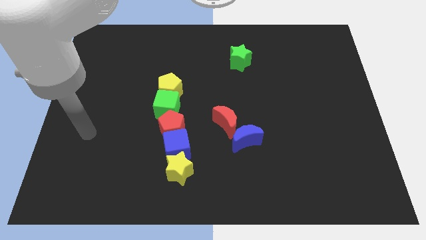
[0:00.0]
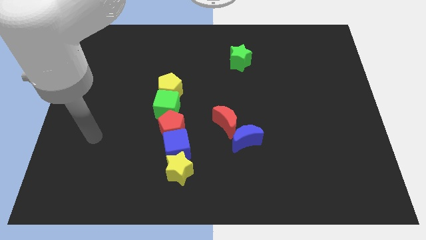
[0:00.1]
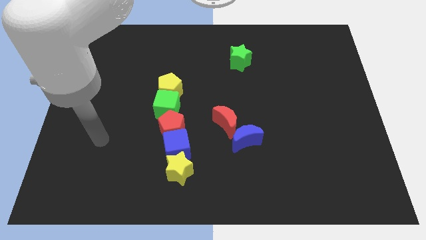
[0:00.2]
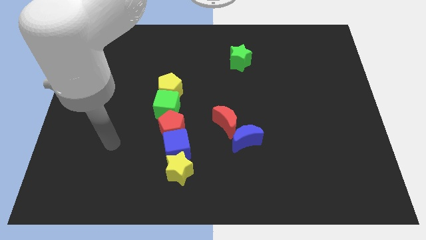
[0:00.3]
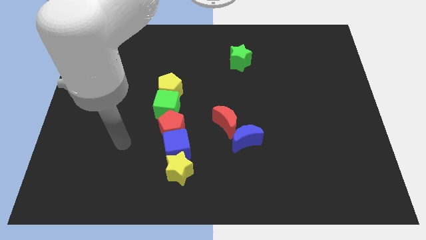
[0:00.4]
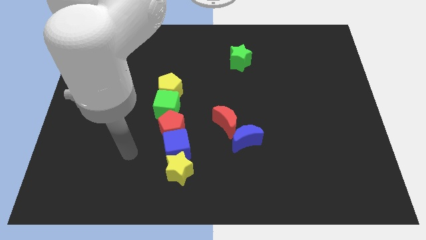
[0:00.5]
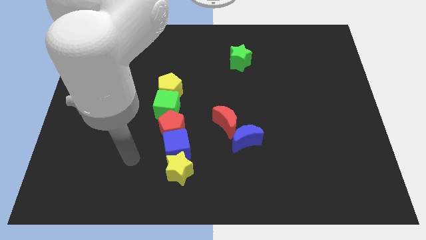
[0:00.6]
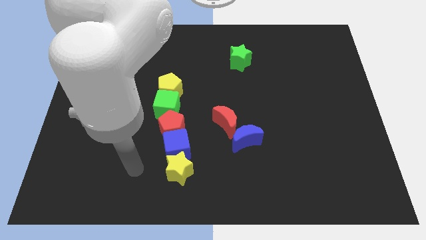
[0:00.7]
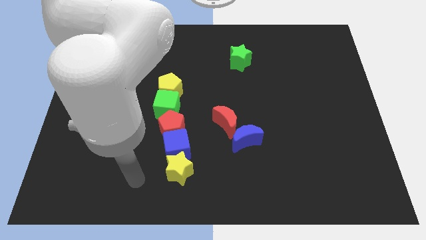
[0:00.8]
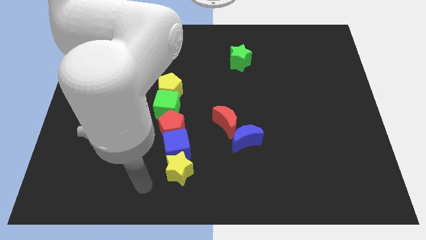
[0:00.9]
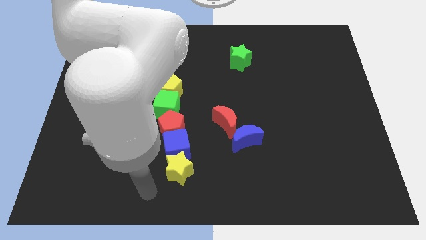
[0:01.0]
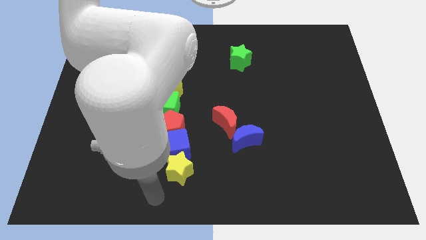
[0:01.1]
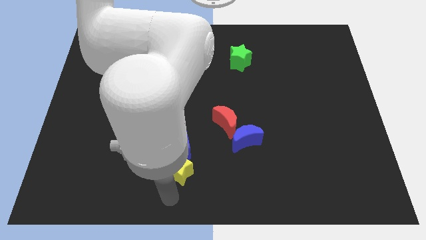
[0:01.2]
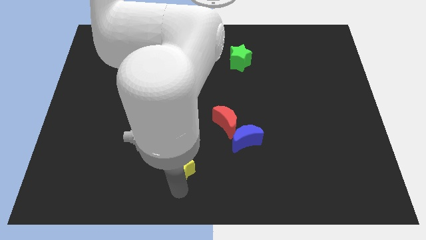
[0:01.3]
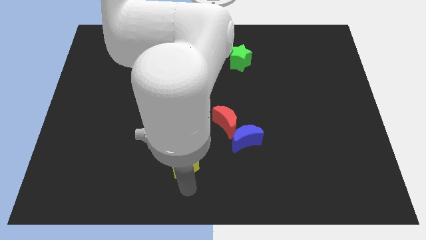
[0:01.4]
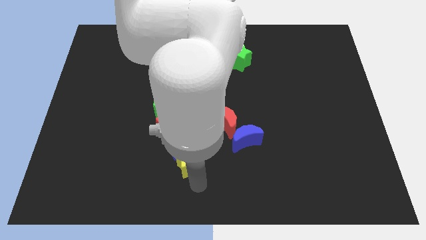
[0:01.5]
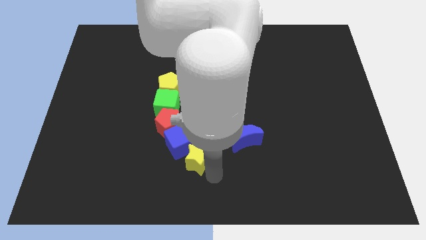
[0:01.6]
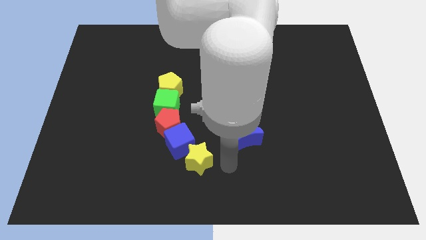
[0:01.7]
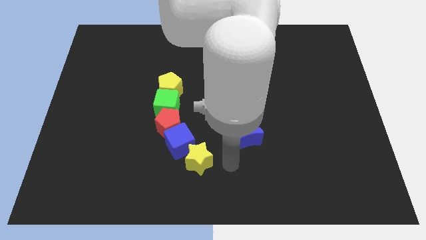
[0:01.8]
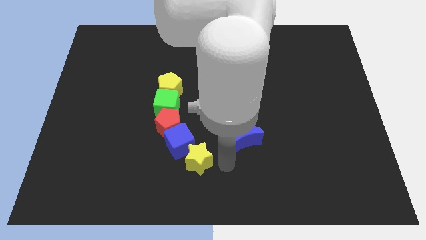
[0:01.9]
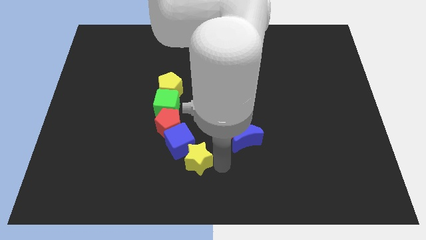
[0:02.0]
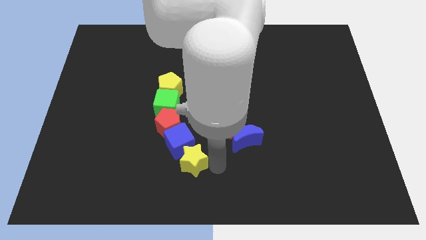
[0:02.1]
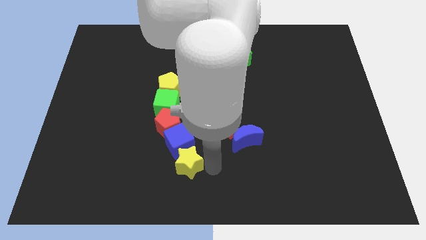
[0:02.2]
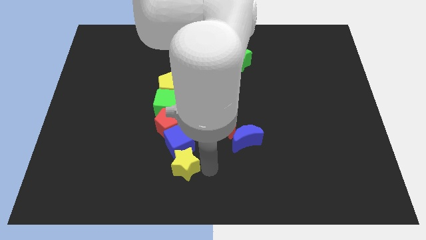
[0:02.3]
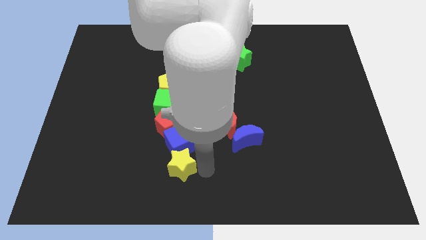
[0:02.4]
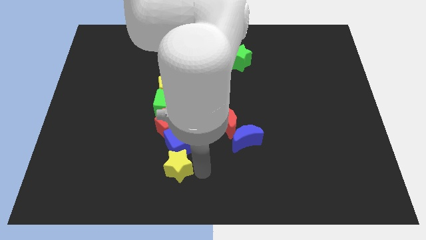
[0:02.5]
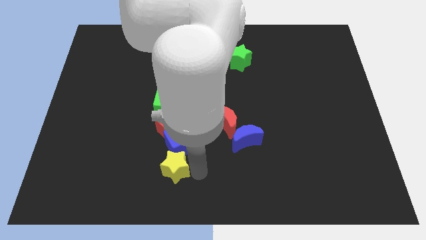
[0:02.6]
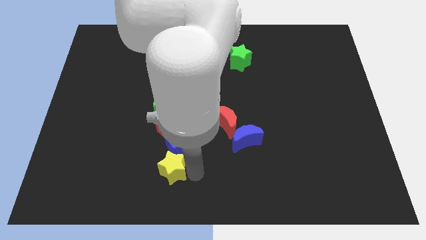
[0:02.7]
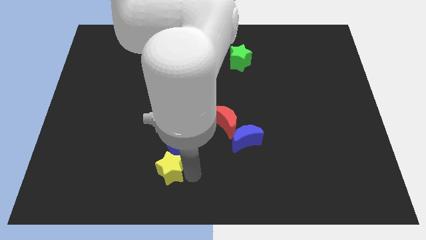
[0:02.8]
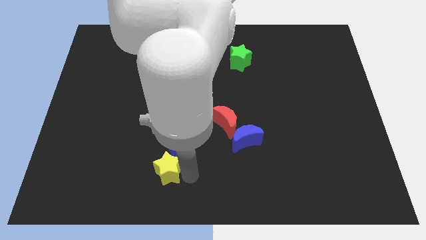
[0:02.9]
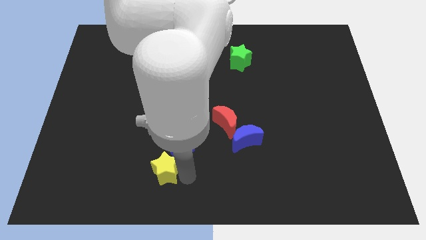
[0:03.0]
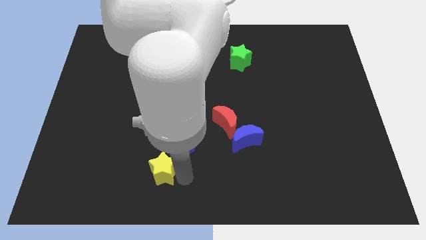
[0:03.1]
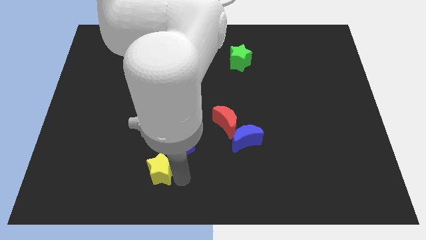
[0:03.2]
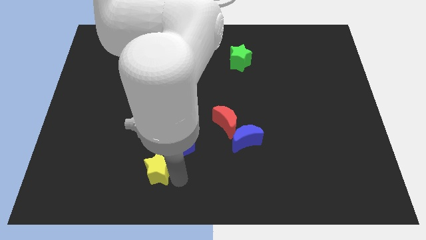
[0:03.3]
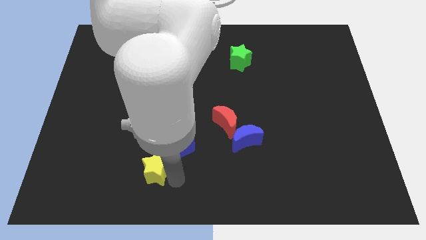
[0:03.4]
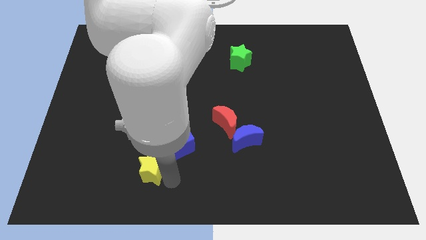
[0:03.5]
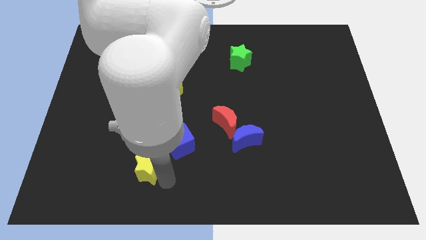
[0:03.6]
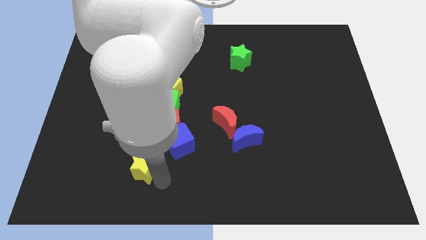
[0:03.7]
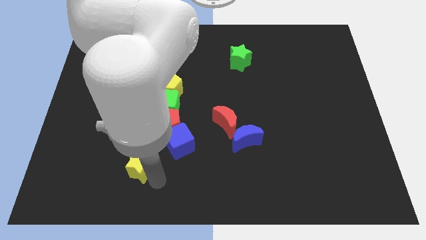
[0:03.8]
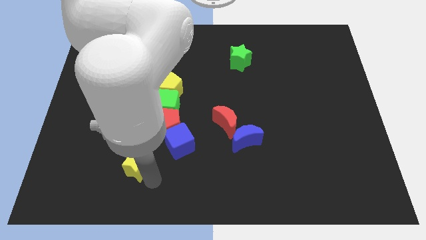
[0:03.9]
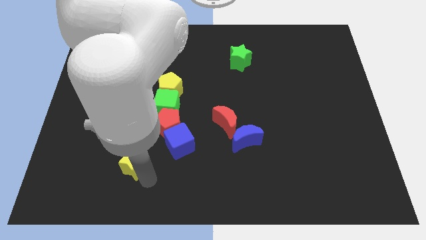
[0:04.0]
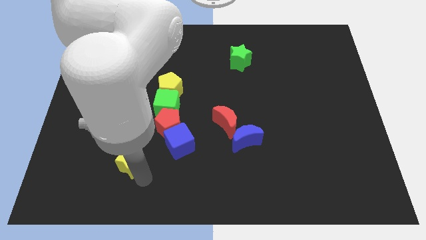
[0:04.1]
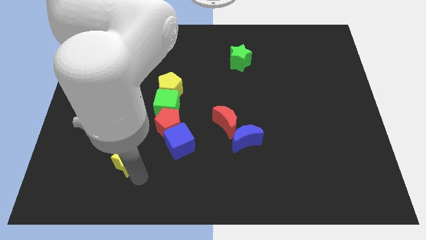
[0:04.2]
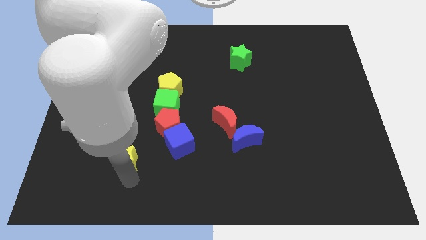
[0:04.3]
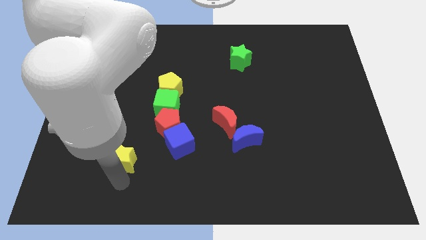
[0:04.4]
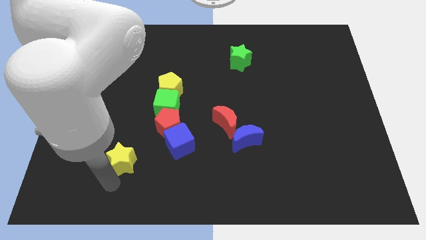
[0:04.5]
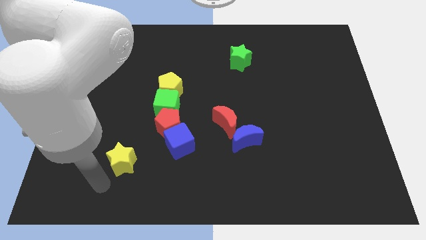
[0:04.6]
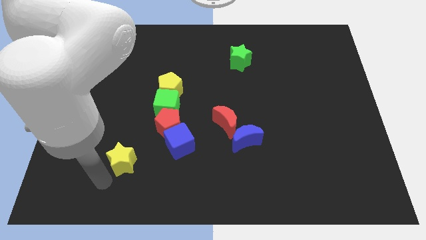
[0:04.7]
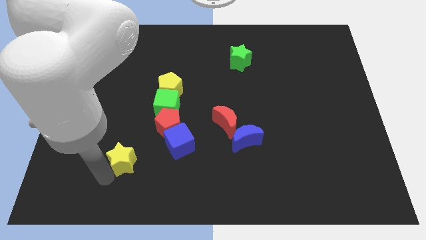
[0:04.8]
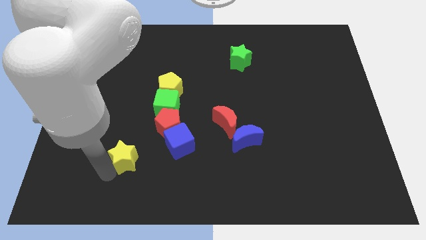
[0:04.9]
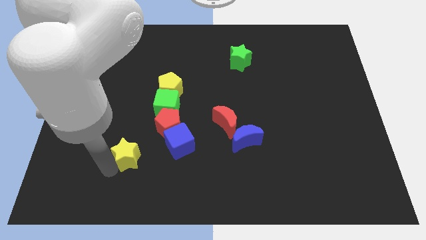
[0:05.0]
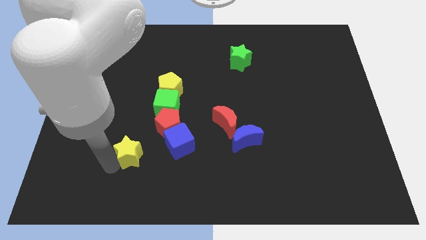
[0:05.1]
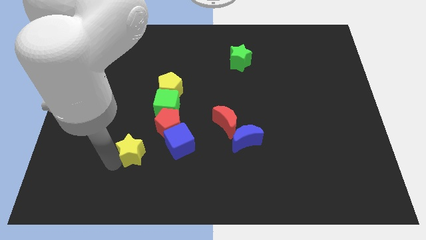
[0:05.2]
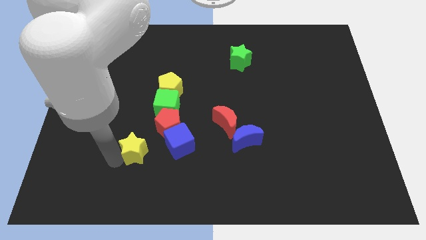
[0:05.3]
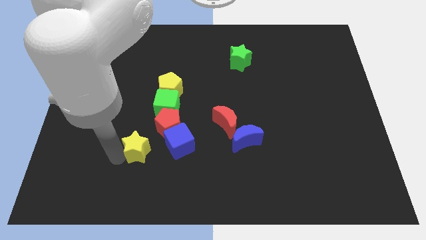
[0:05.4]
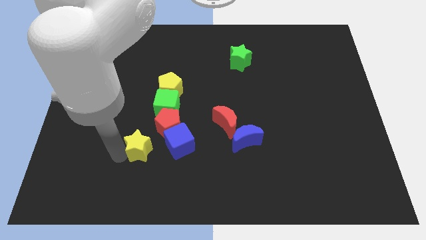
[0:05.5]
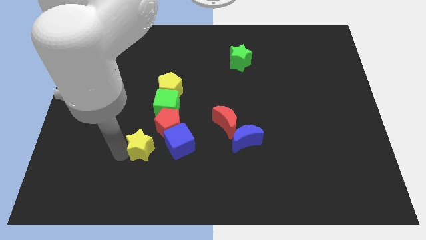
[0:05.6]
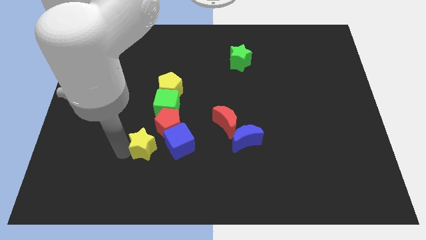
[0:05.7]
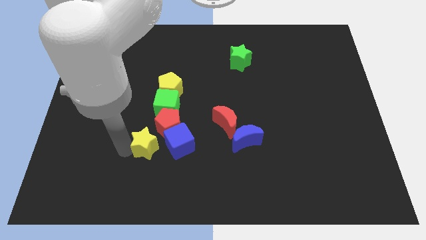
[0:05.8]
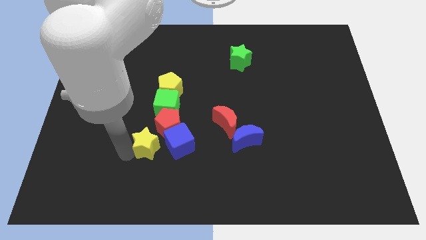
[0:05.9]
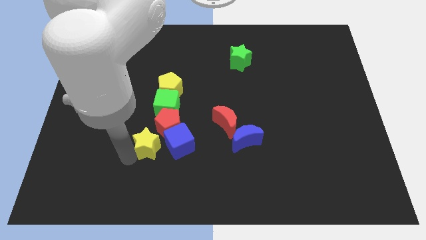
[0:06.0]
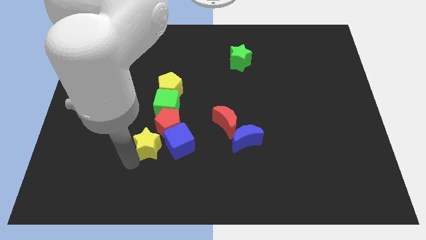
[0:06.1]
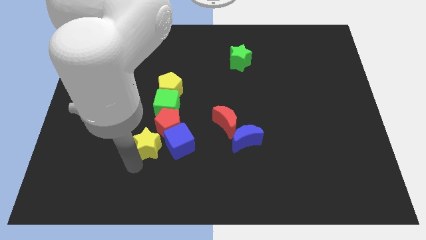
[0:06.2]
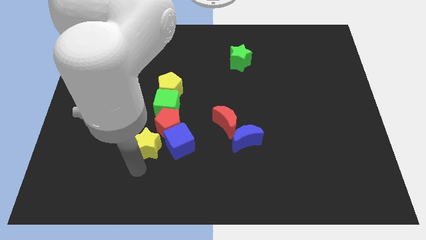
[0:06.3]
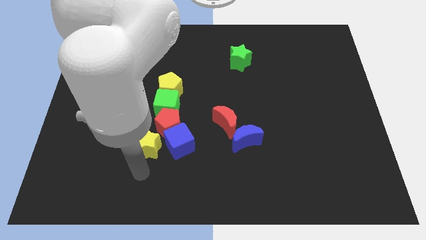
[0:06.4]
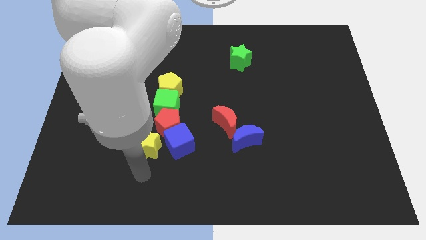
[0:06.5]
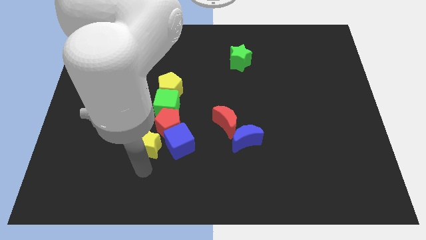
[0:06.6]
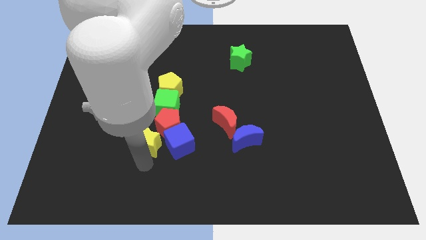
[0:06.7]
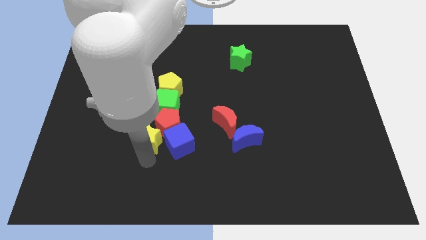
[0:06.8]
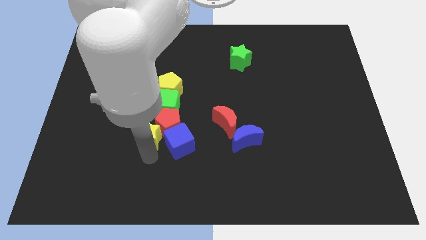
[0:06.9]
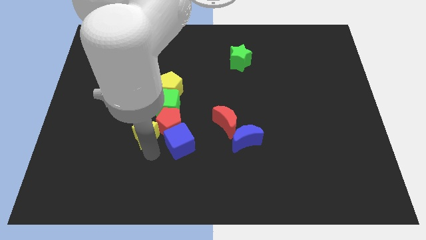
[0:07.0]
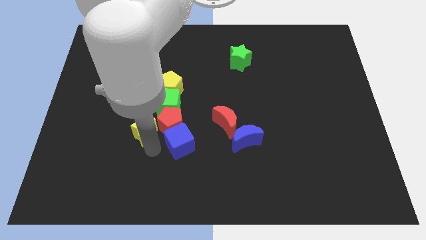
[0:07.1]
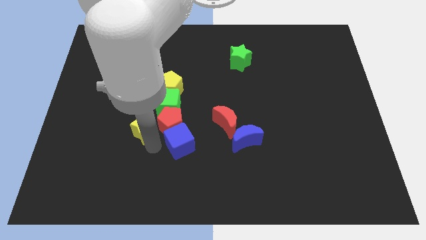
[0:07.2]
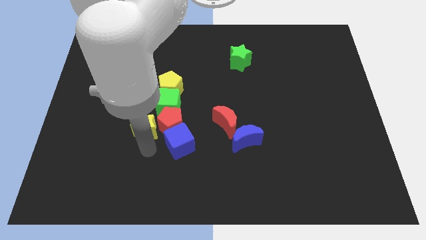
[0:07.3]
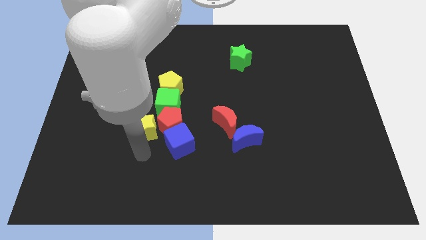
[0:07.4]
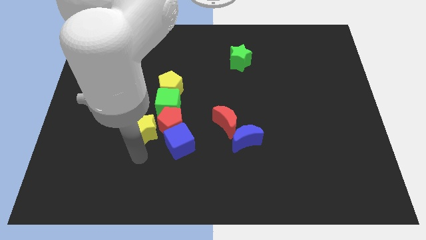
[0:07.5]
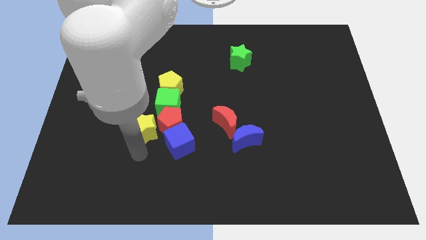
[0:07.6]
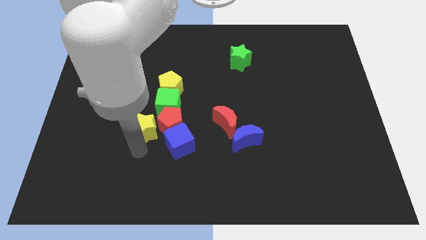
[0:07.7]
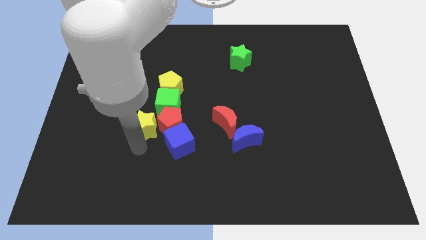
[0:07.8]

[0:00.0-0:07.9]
push the yellow star diagonally up and to the left of the red pentagon
